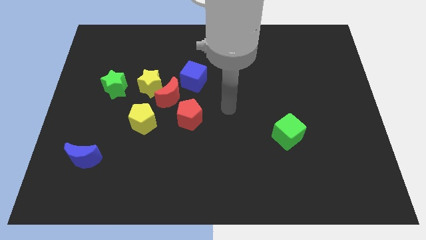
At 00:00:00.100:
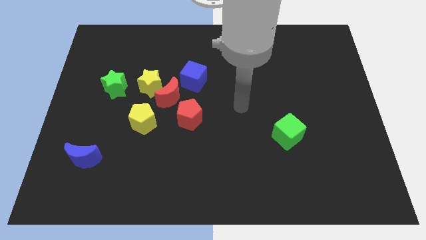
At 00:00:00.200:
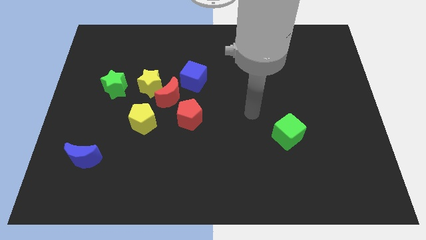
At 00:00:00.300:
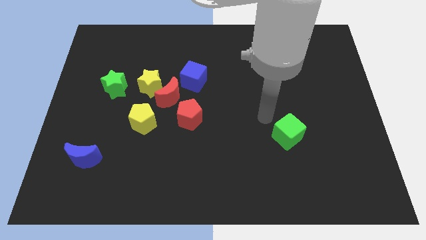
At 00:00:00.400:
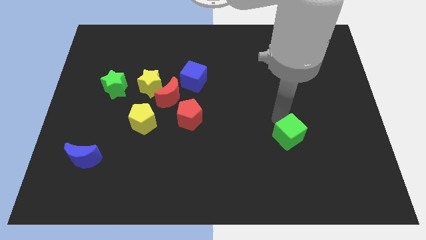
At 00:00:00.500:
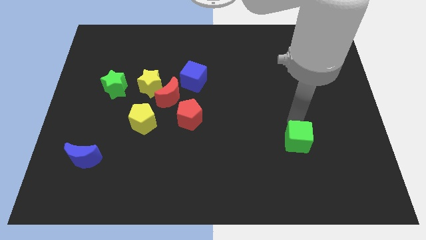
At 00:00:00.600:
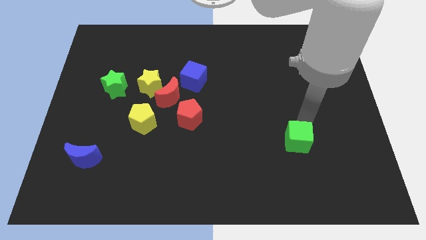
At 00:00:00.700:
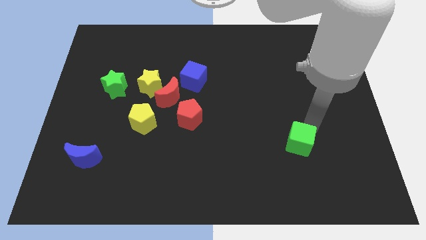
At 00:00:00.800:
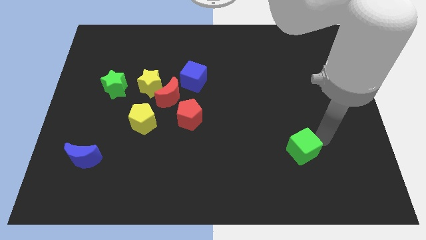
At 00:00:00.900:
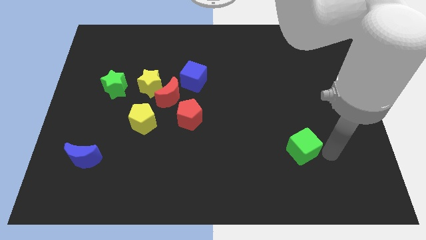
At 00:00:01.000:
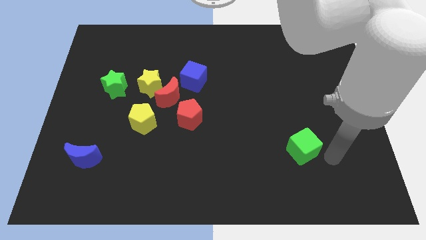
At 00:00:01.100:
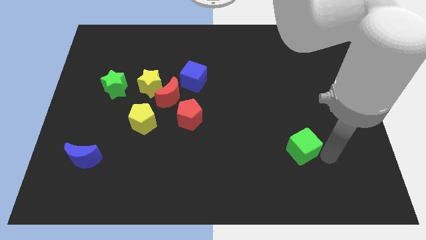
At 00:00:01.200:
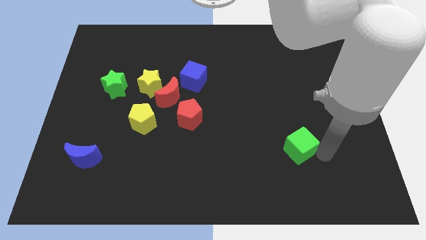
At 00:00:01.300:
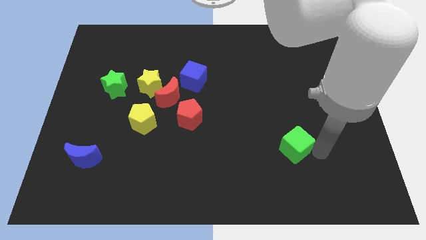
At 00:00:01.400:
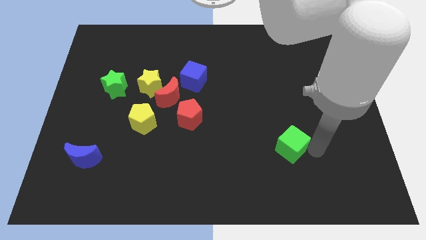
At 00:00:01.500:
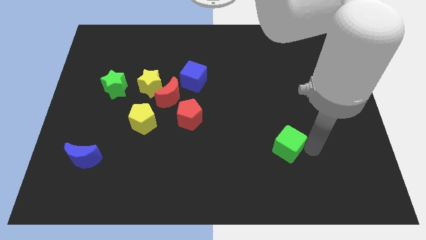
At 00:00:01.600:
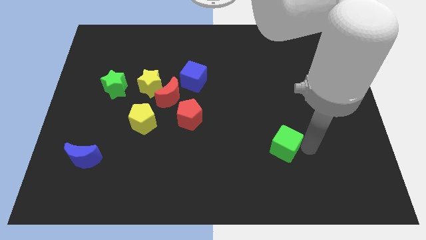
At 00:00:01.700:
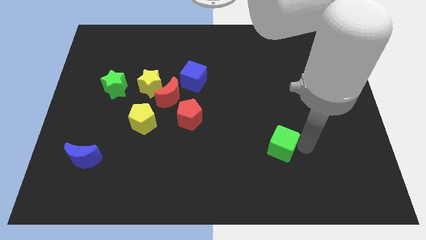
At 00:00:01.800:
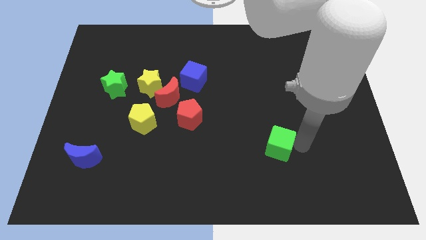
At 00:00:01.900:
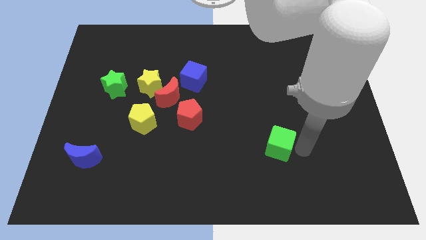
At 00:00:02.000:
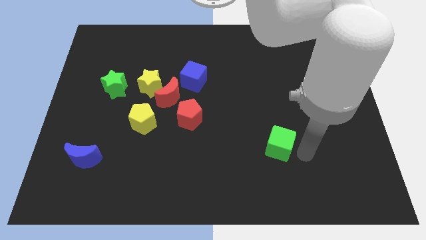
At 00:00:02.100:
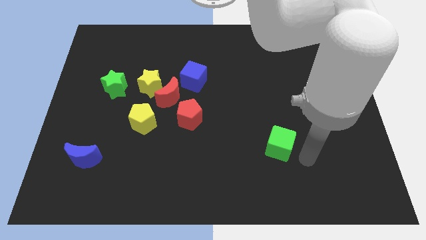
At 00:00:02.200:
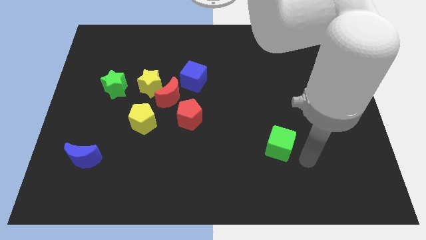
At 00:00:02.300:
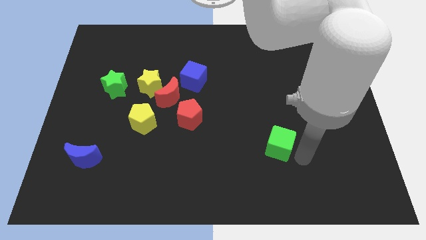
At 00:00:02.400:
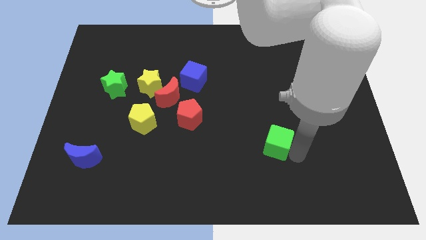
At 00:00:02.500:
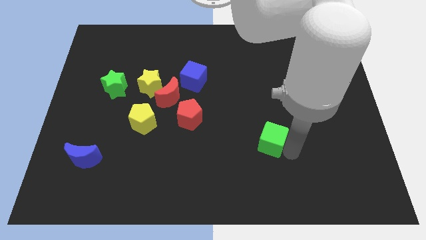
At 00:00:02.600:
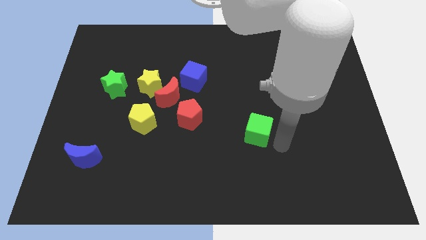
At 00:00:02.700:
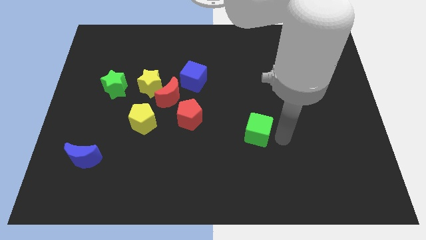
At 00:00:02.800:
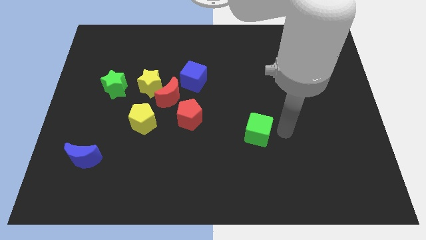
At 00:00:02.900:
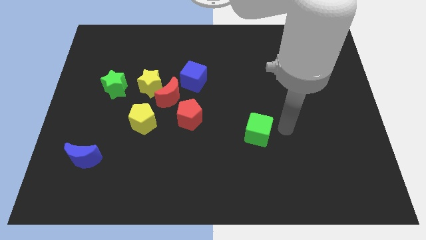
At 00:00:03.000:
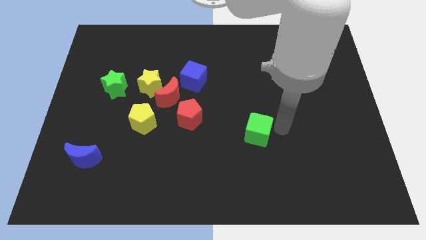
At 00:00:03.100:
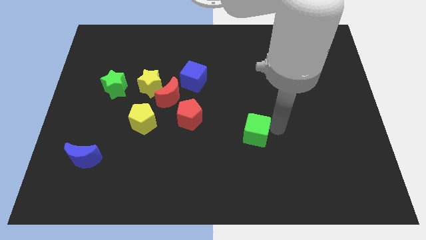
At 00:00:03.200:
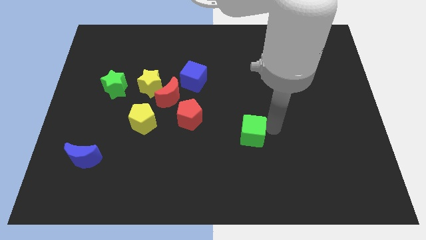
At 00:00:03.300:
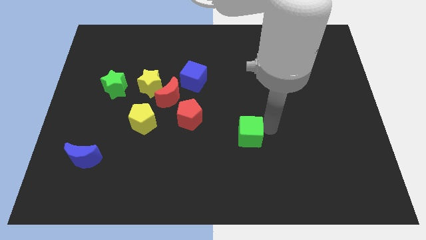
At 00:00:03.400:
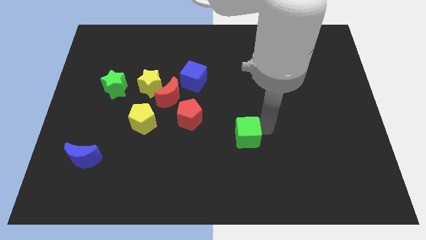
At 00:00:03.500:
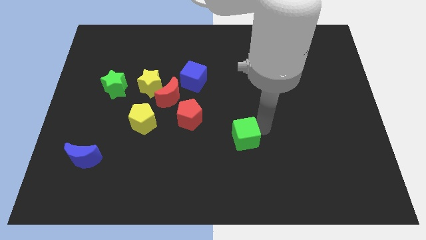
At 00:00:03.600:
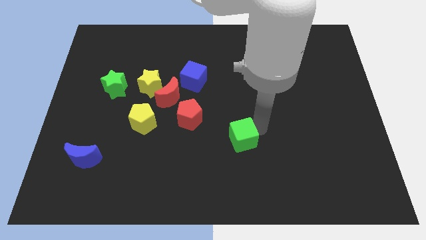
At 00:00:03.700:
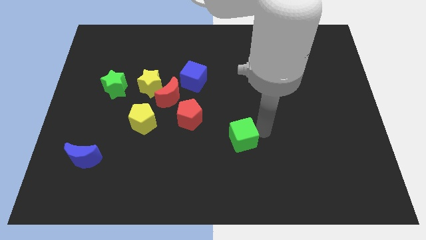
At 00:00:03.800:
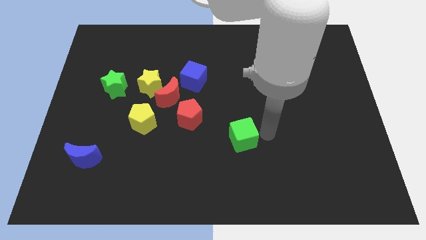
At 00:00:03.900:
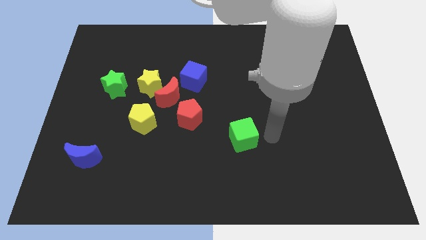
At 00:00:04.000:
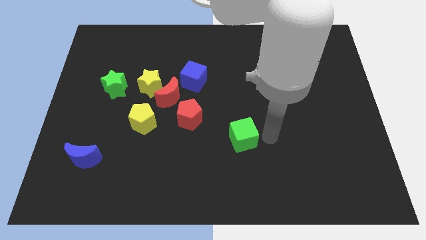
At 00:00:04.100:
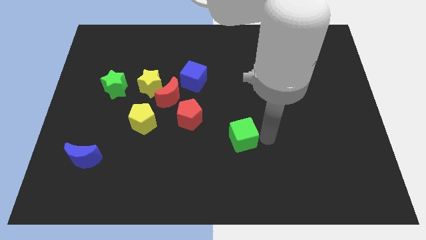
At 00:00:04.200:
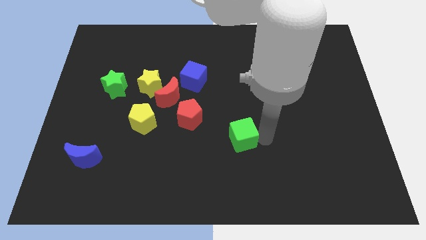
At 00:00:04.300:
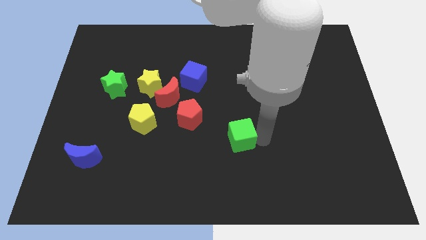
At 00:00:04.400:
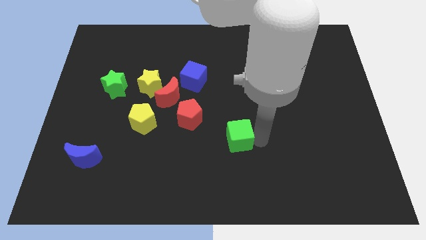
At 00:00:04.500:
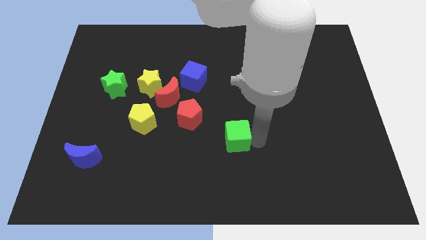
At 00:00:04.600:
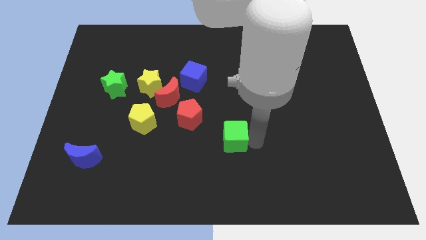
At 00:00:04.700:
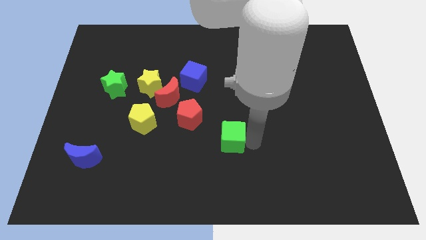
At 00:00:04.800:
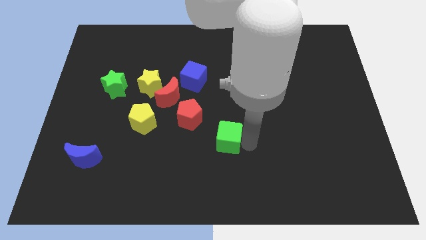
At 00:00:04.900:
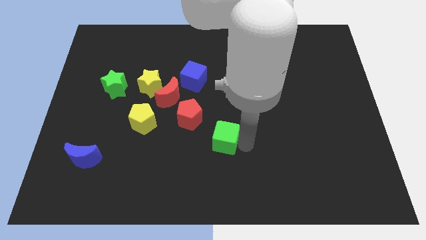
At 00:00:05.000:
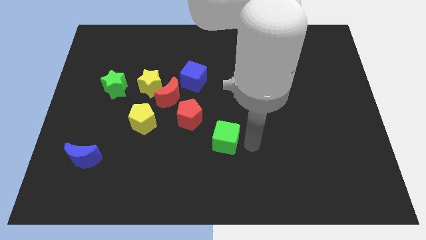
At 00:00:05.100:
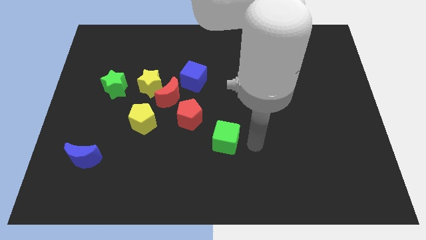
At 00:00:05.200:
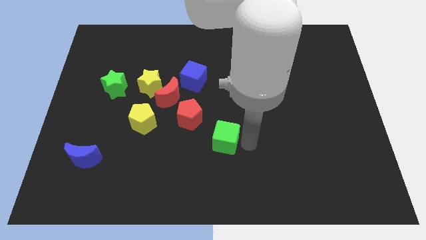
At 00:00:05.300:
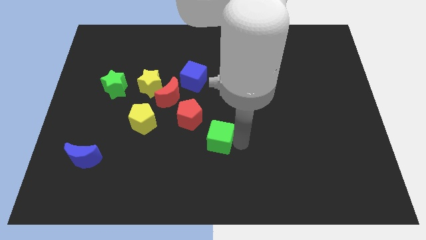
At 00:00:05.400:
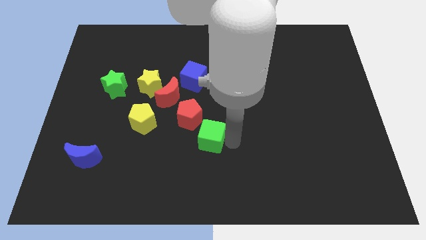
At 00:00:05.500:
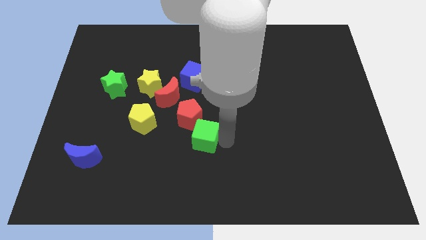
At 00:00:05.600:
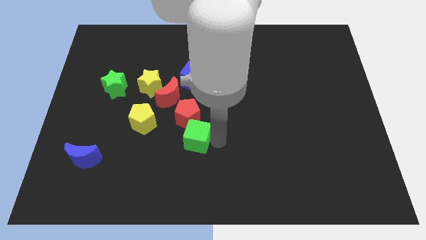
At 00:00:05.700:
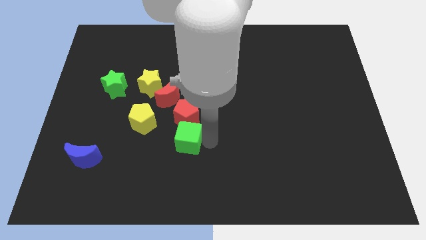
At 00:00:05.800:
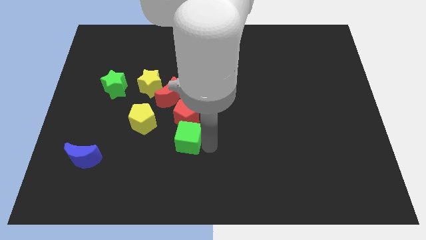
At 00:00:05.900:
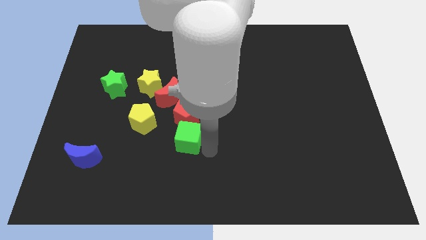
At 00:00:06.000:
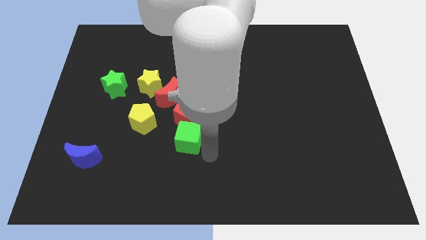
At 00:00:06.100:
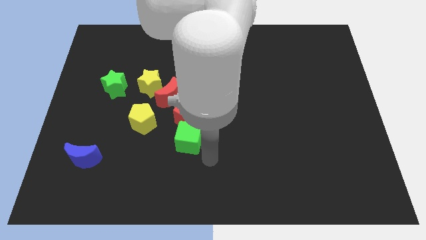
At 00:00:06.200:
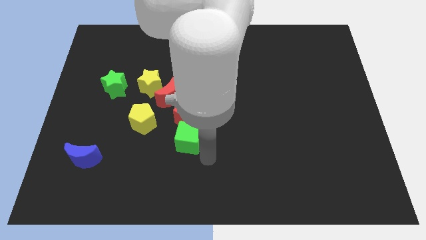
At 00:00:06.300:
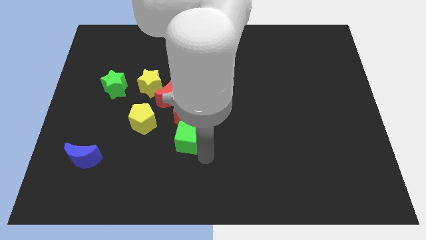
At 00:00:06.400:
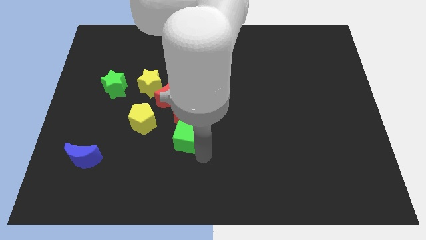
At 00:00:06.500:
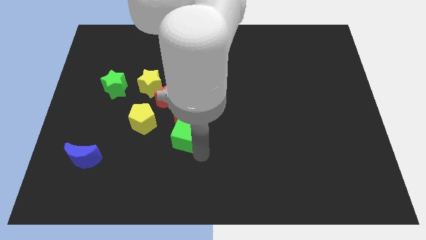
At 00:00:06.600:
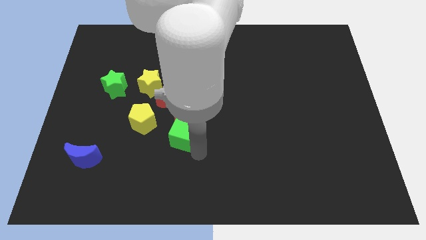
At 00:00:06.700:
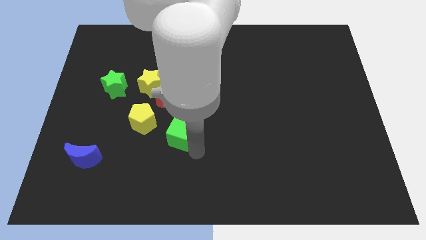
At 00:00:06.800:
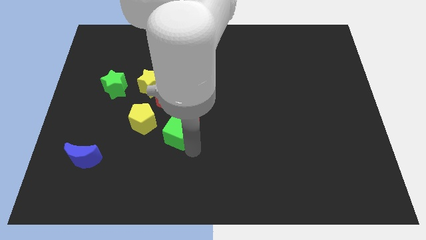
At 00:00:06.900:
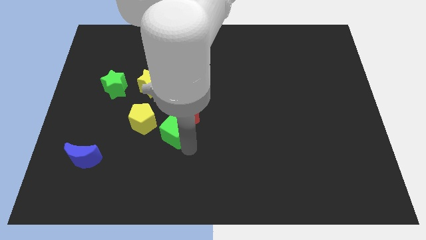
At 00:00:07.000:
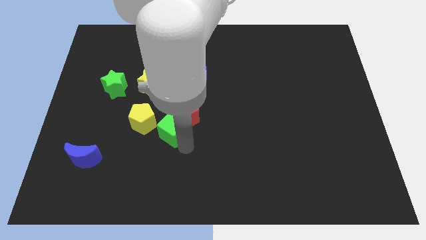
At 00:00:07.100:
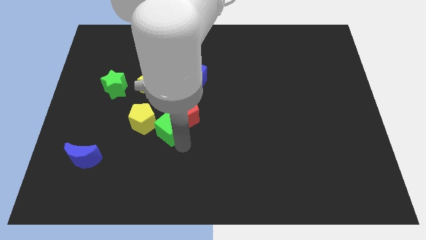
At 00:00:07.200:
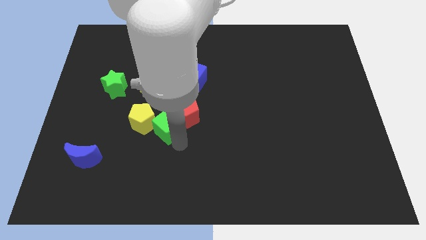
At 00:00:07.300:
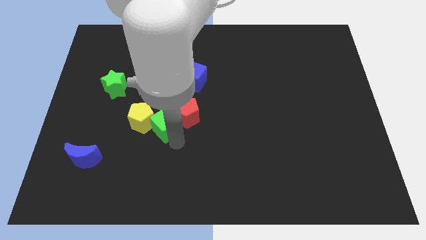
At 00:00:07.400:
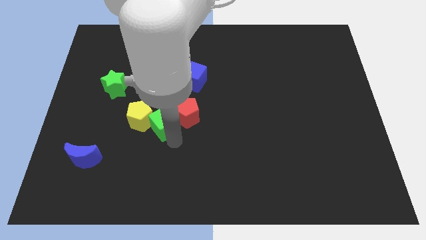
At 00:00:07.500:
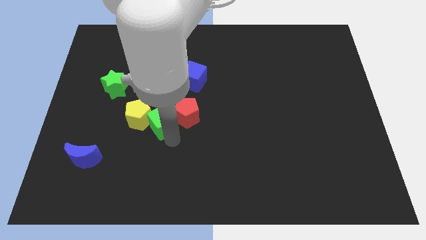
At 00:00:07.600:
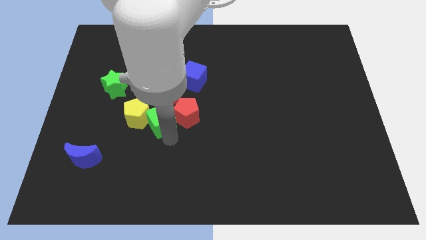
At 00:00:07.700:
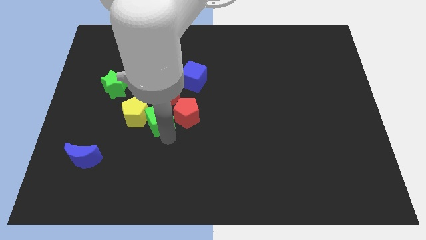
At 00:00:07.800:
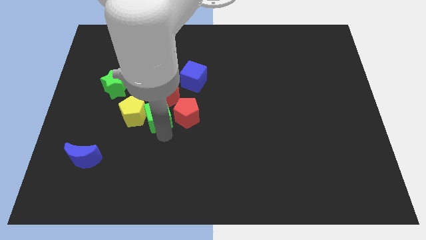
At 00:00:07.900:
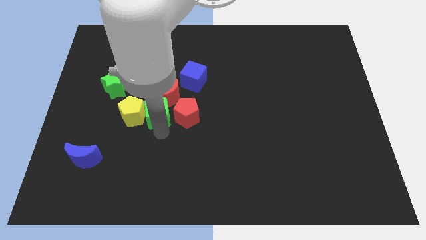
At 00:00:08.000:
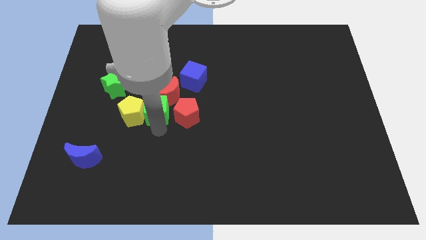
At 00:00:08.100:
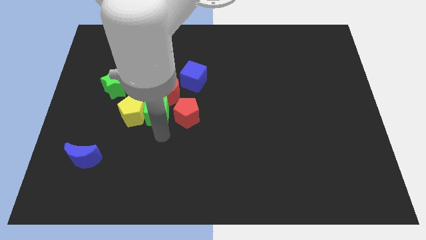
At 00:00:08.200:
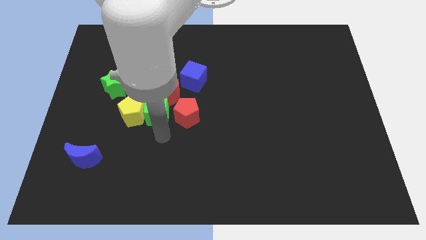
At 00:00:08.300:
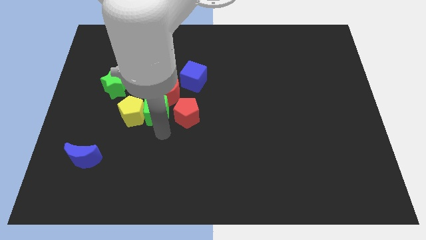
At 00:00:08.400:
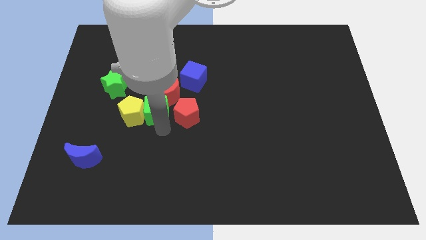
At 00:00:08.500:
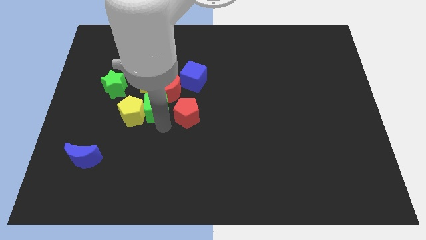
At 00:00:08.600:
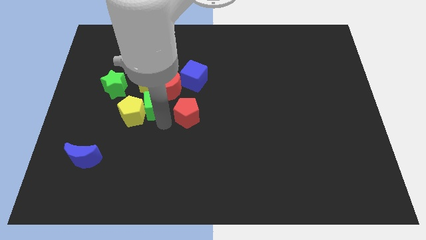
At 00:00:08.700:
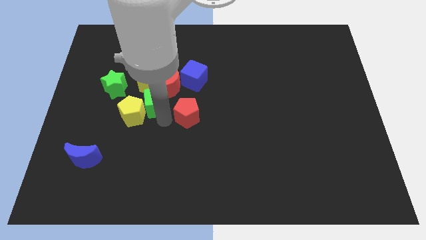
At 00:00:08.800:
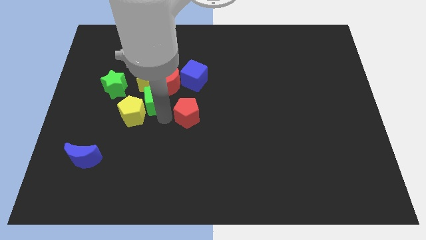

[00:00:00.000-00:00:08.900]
slide the green cube towards the yellow star
